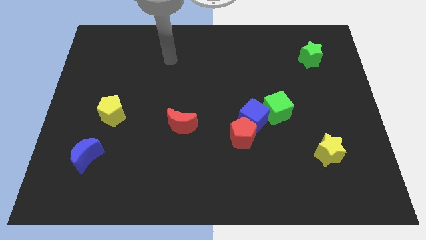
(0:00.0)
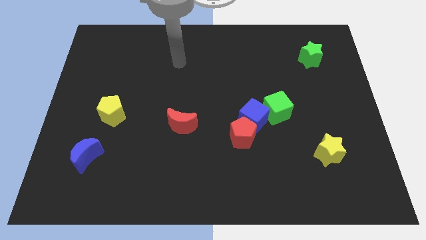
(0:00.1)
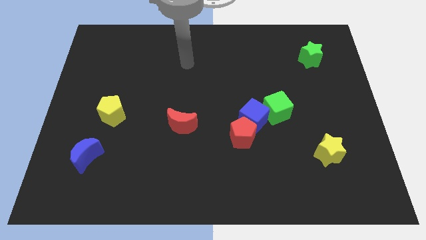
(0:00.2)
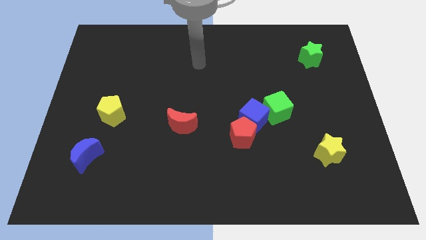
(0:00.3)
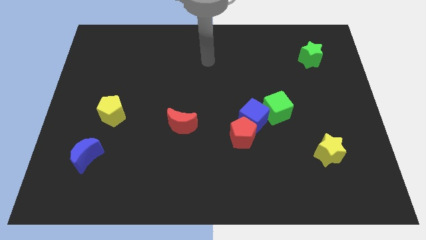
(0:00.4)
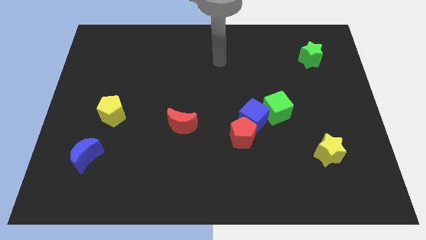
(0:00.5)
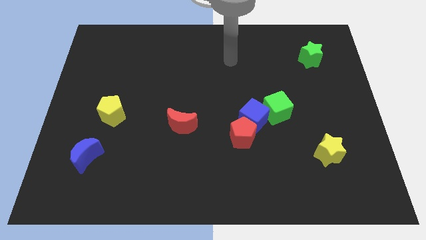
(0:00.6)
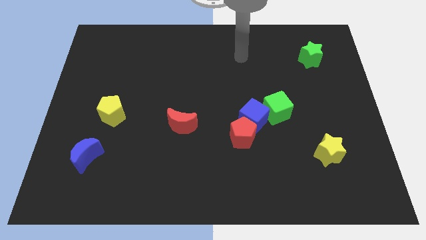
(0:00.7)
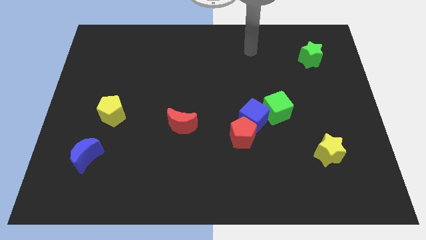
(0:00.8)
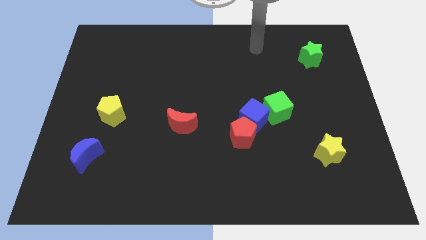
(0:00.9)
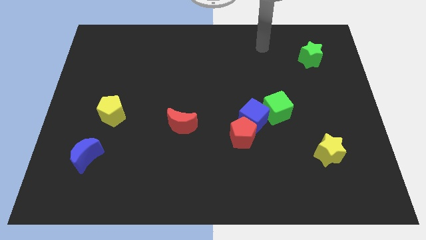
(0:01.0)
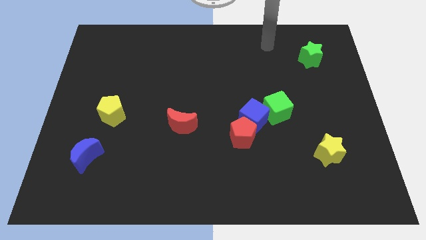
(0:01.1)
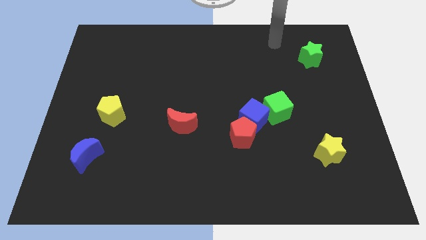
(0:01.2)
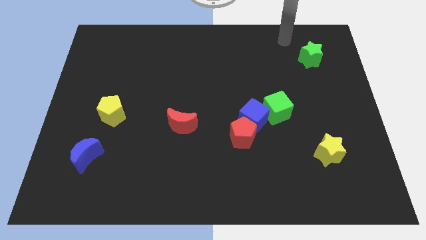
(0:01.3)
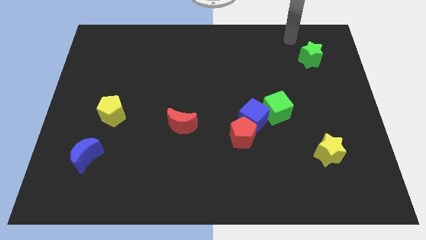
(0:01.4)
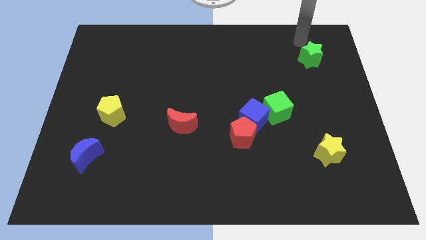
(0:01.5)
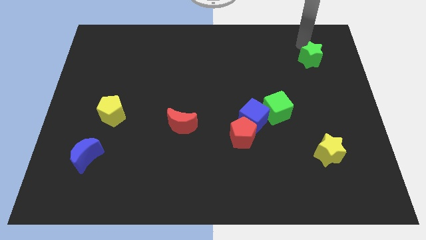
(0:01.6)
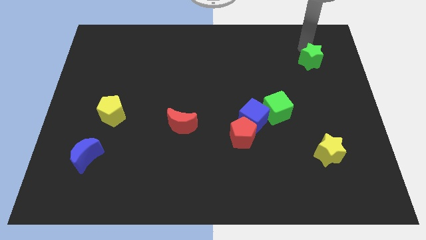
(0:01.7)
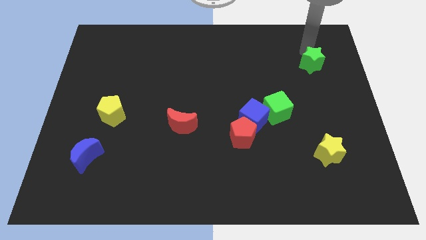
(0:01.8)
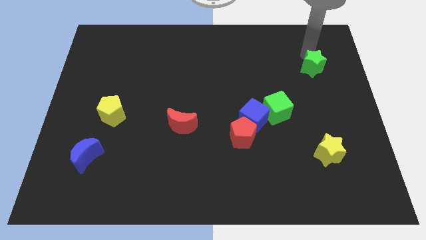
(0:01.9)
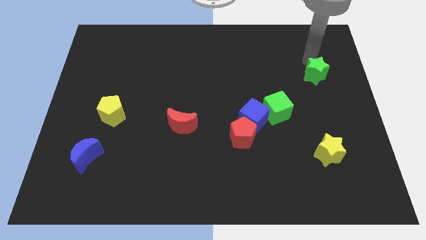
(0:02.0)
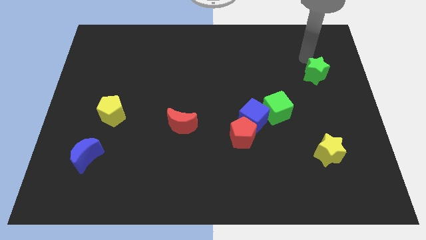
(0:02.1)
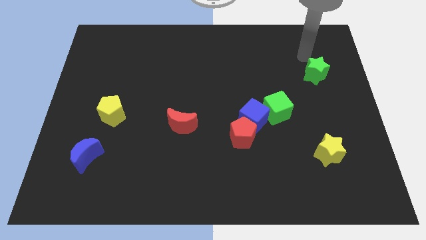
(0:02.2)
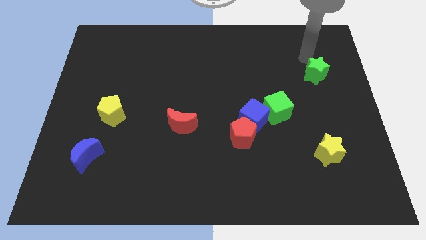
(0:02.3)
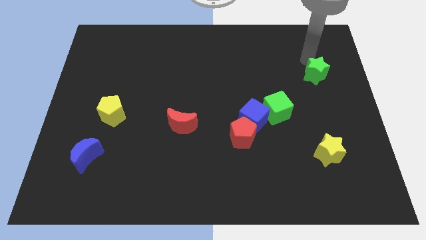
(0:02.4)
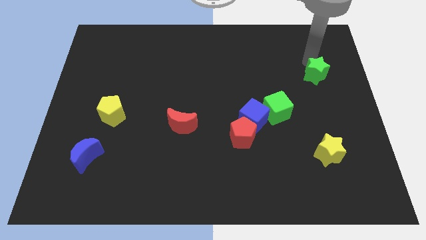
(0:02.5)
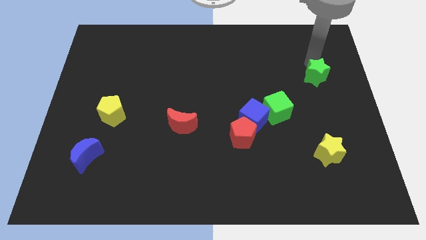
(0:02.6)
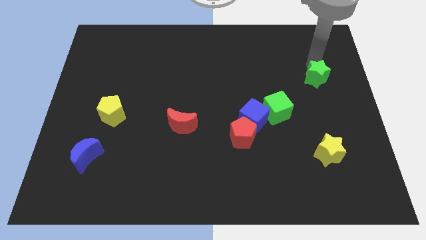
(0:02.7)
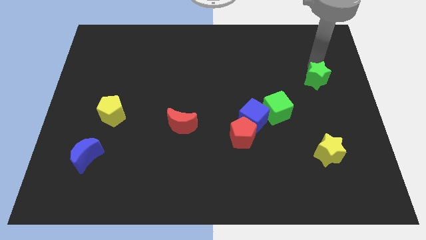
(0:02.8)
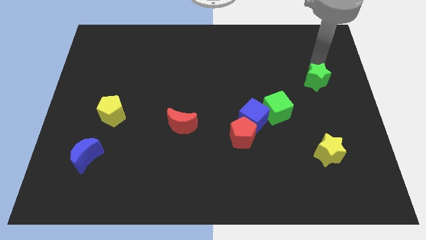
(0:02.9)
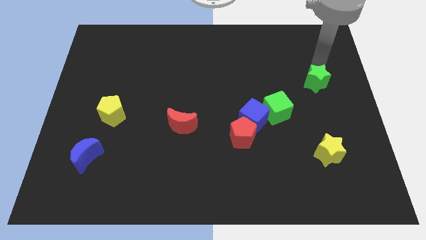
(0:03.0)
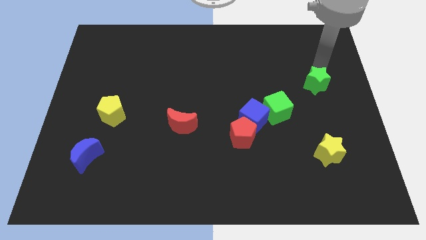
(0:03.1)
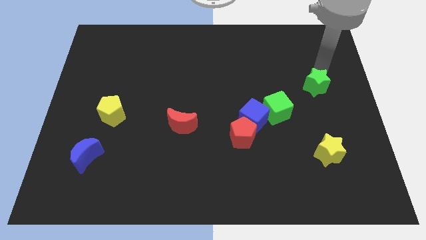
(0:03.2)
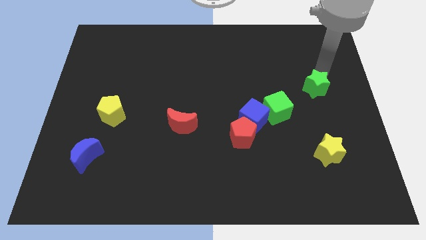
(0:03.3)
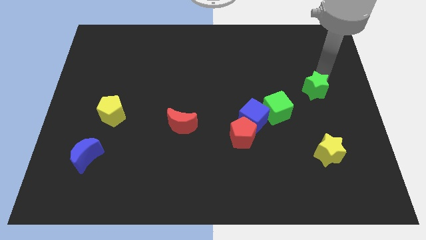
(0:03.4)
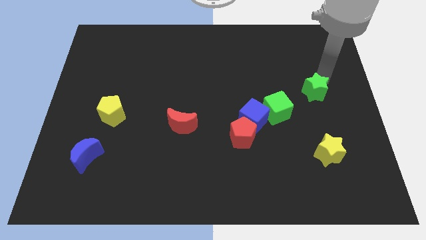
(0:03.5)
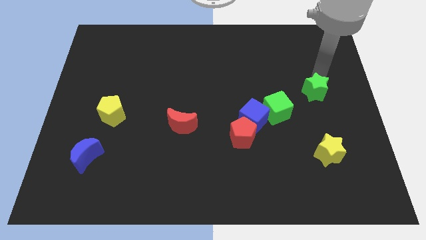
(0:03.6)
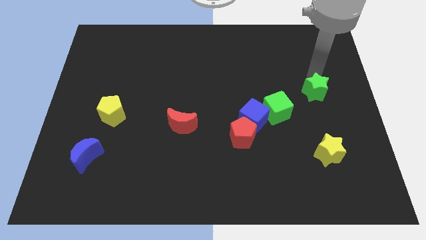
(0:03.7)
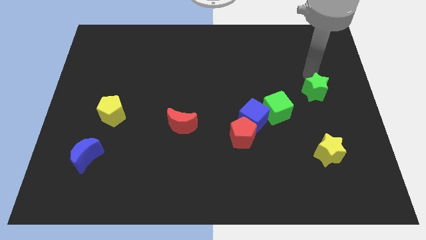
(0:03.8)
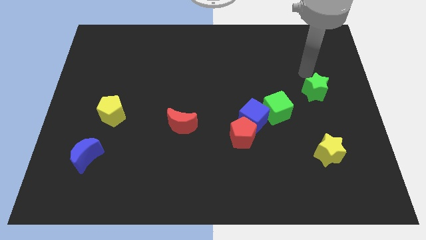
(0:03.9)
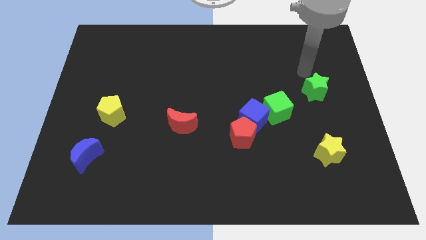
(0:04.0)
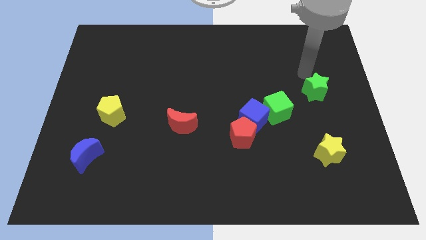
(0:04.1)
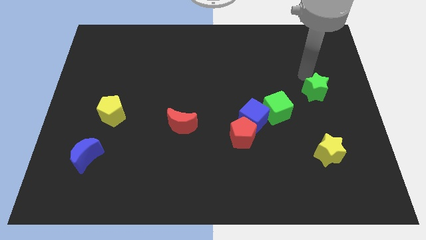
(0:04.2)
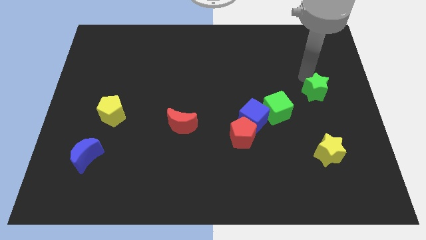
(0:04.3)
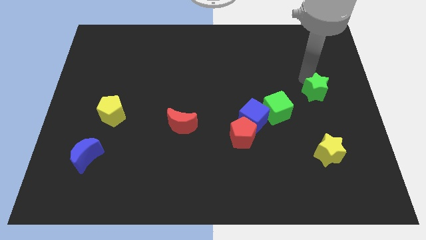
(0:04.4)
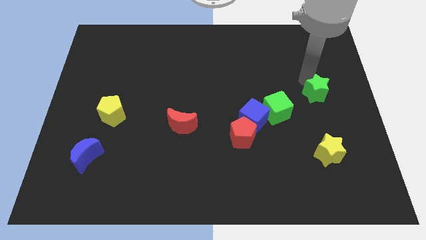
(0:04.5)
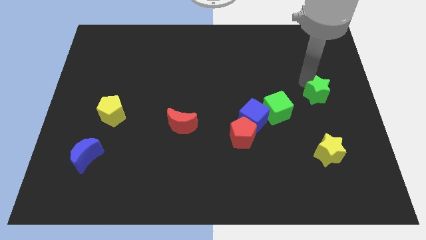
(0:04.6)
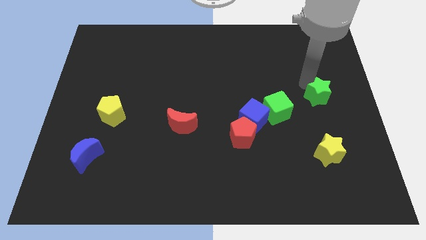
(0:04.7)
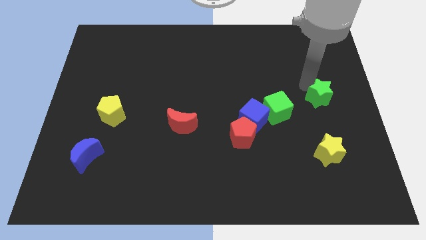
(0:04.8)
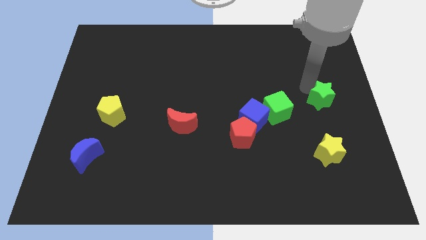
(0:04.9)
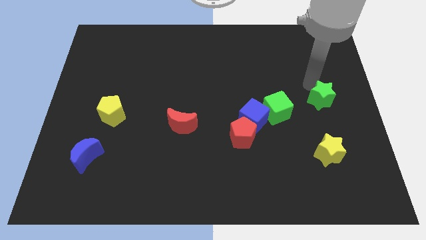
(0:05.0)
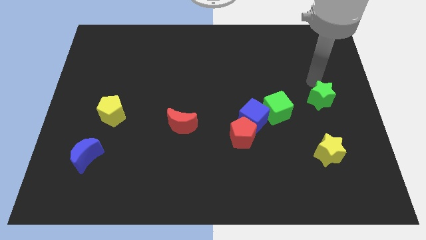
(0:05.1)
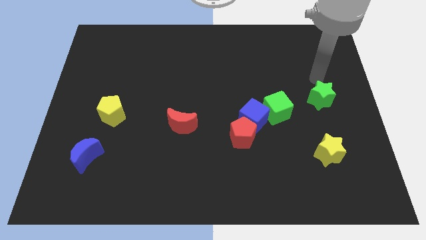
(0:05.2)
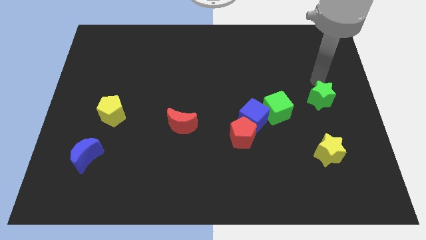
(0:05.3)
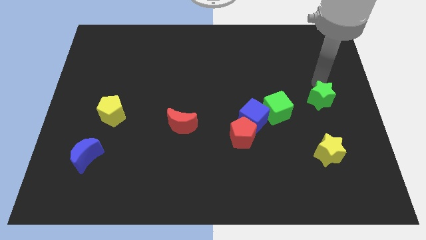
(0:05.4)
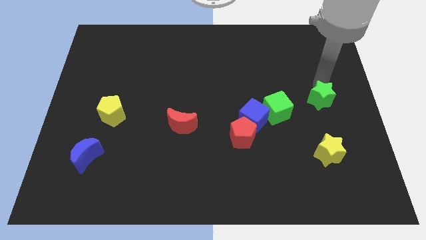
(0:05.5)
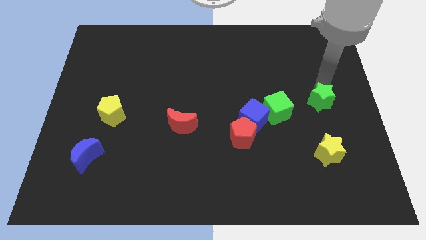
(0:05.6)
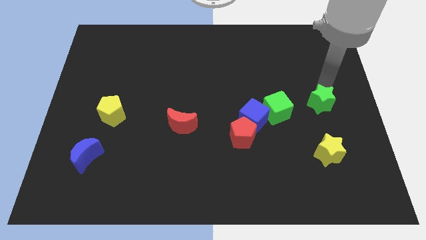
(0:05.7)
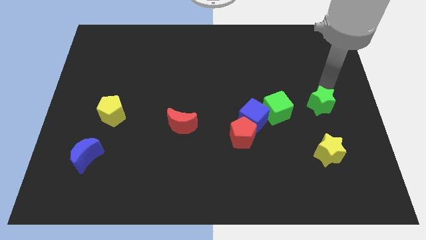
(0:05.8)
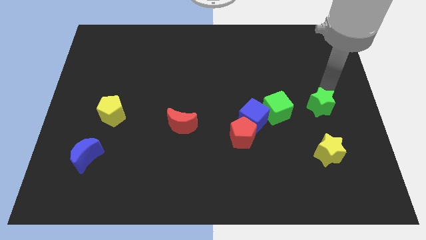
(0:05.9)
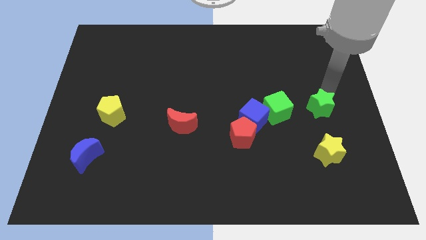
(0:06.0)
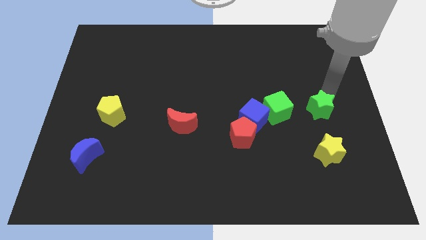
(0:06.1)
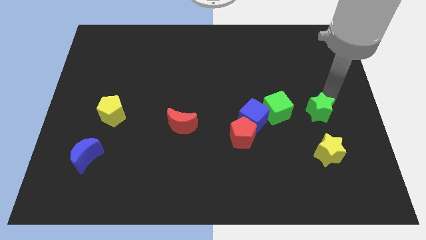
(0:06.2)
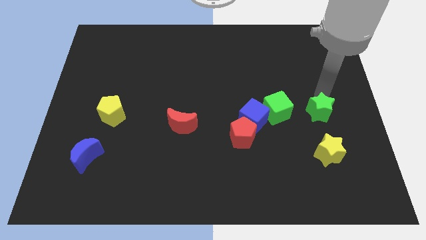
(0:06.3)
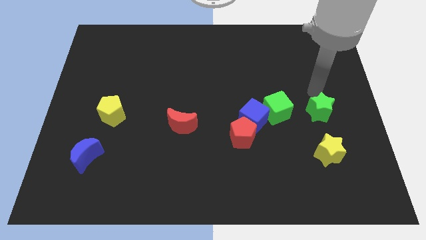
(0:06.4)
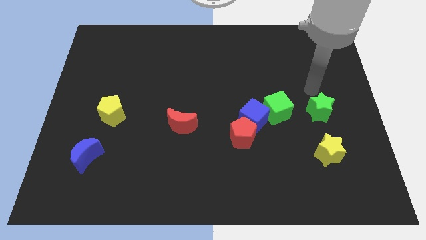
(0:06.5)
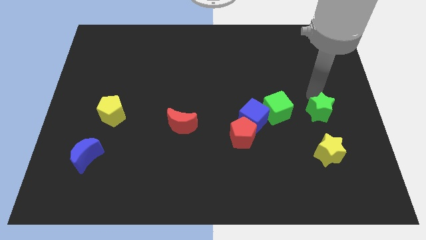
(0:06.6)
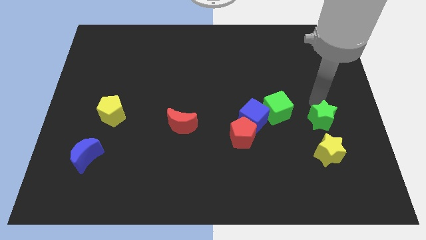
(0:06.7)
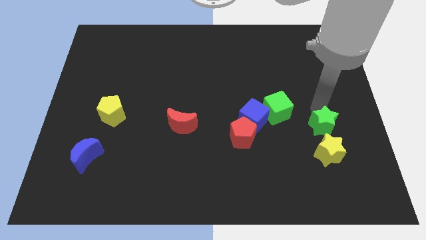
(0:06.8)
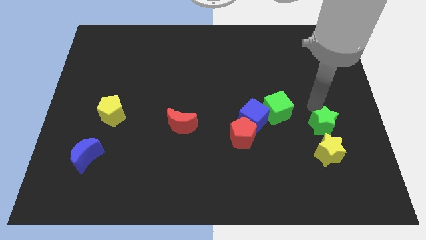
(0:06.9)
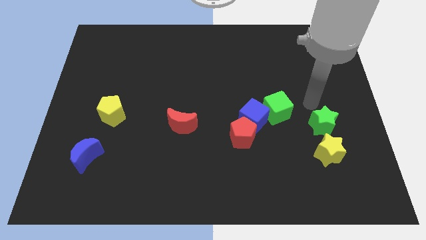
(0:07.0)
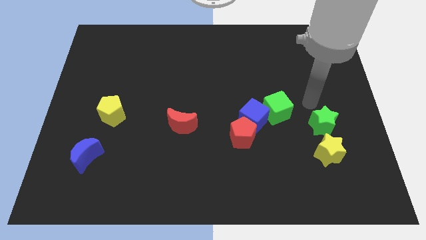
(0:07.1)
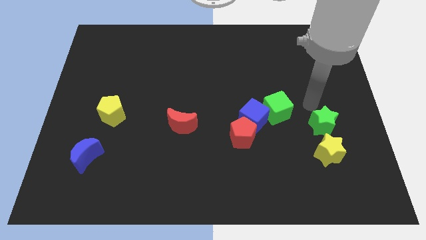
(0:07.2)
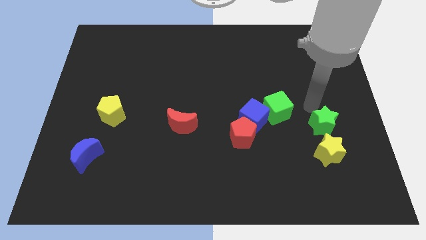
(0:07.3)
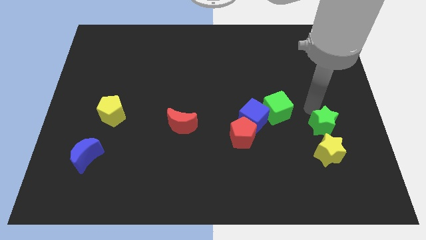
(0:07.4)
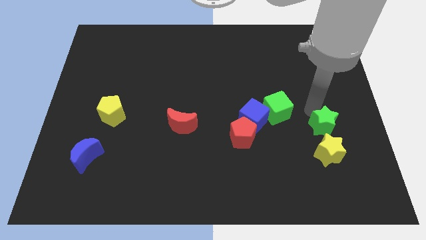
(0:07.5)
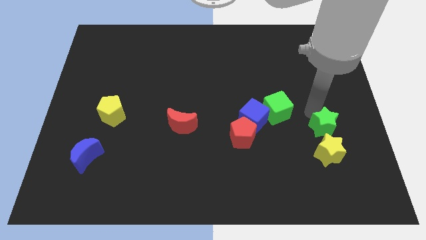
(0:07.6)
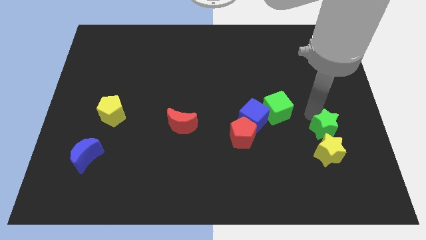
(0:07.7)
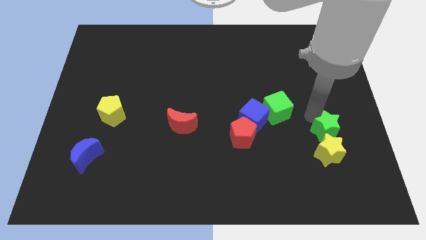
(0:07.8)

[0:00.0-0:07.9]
push the green star to the yellow star

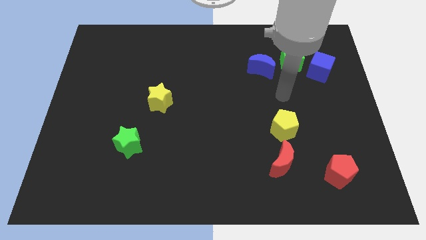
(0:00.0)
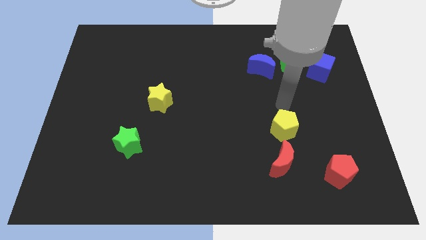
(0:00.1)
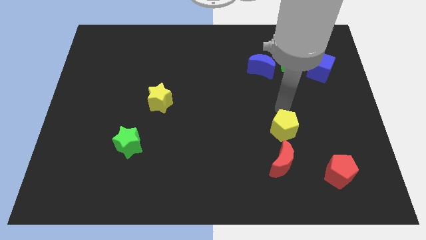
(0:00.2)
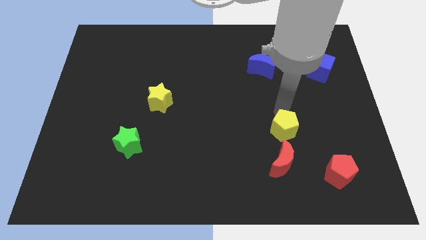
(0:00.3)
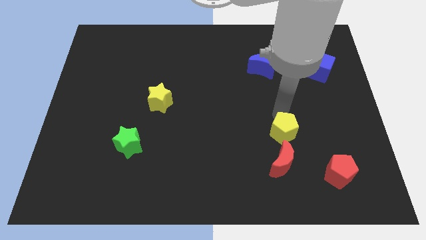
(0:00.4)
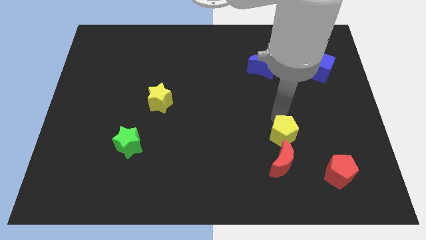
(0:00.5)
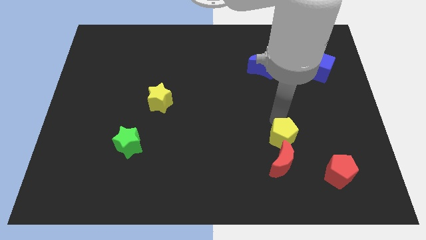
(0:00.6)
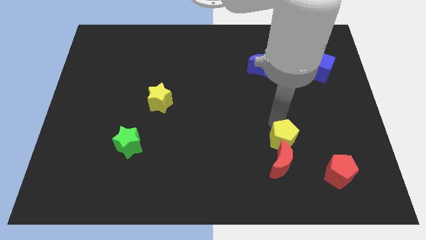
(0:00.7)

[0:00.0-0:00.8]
put the yellow pentagon towards the red moon
